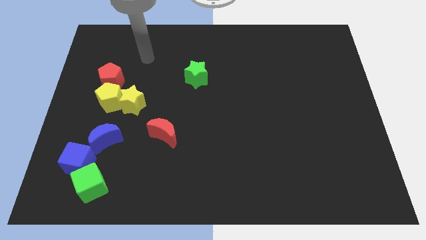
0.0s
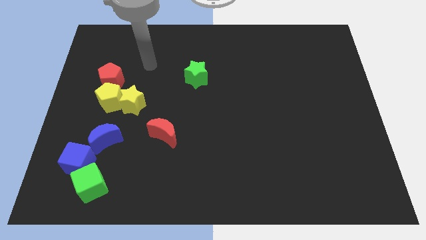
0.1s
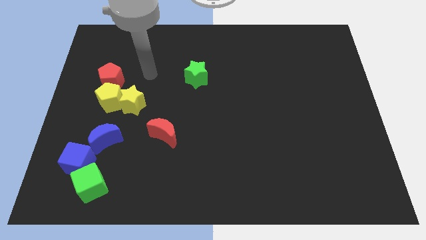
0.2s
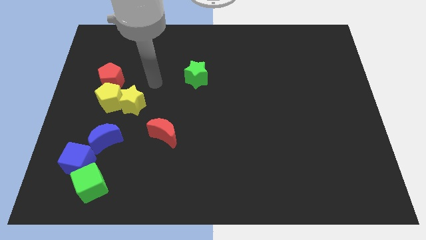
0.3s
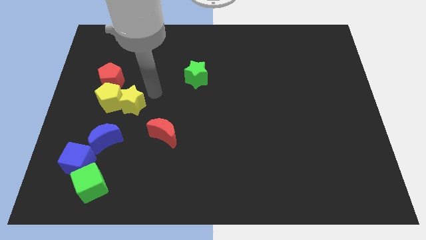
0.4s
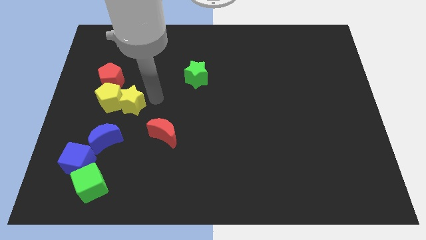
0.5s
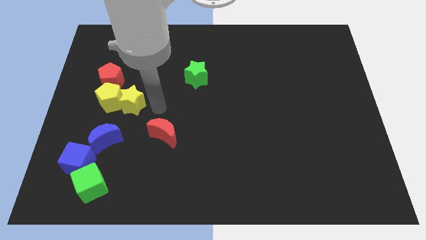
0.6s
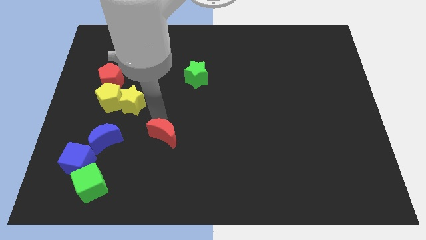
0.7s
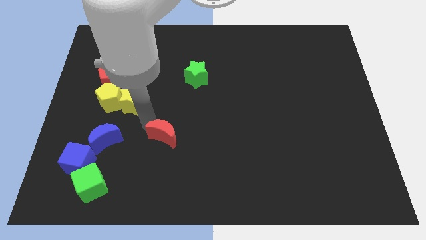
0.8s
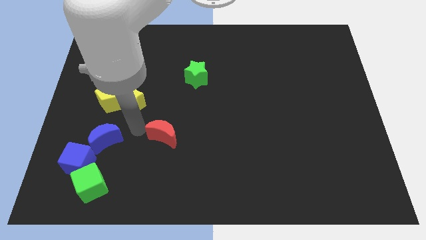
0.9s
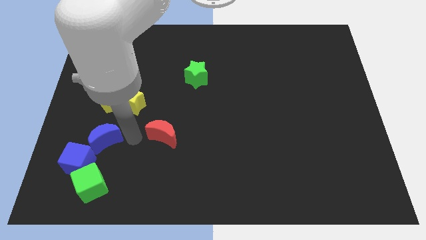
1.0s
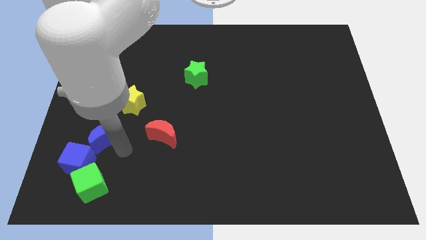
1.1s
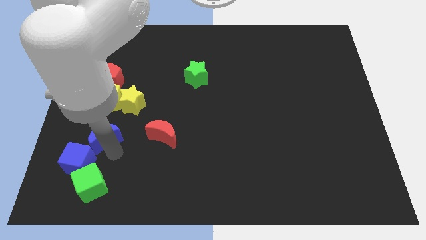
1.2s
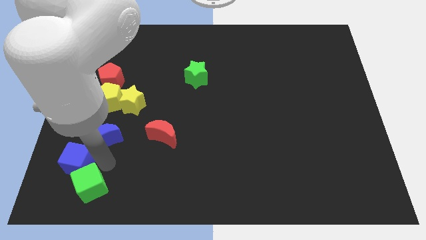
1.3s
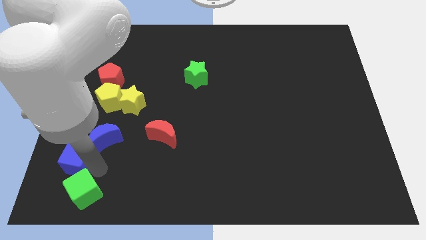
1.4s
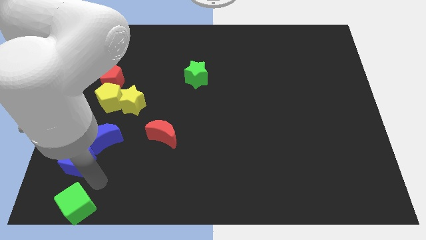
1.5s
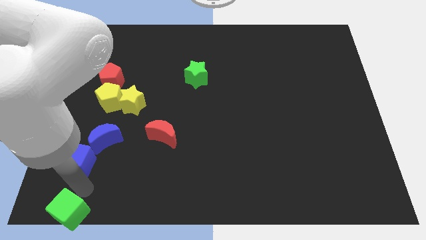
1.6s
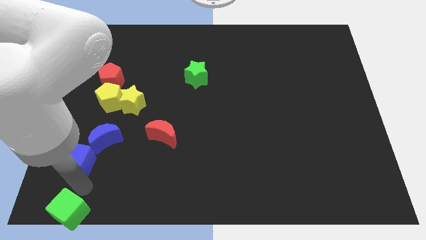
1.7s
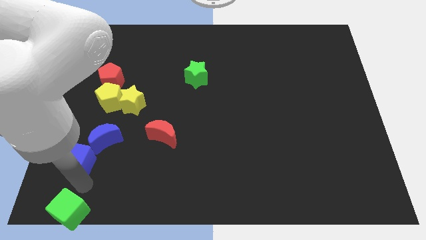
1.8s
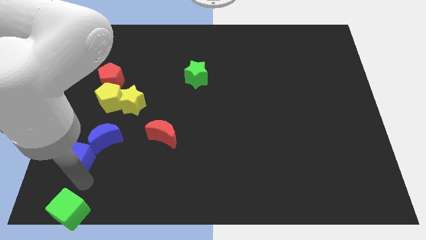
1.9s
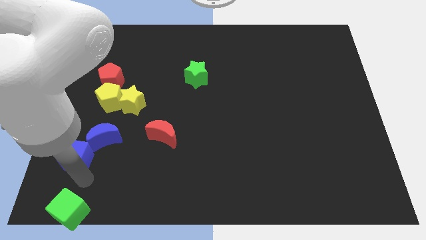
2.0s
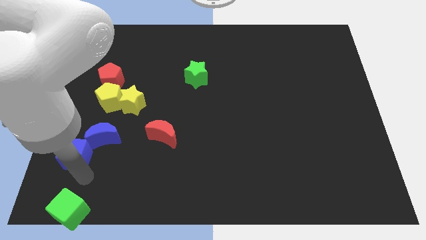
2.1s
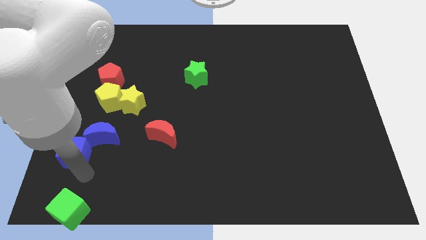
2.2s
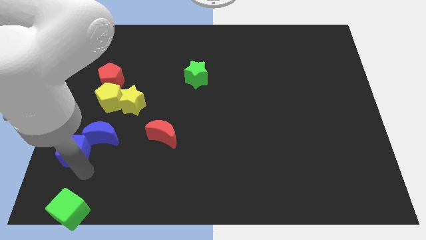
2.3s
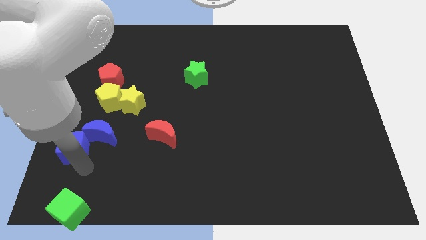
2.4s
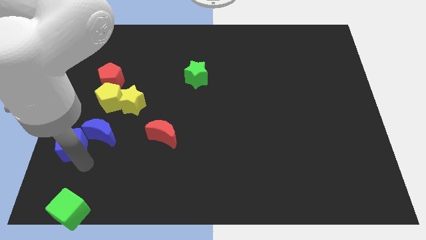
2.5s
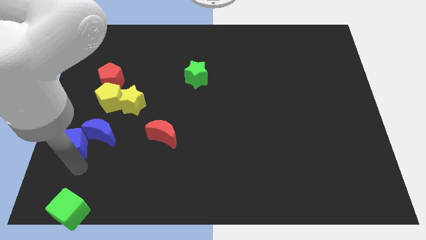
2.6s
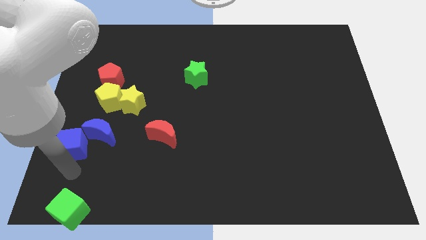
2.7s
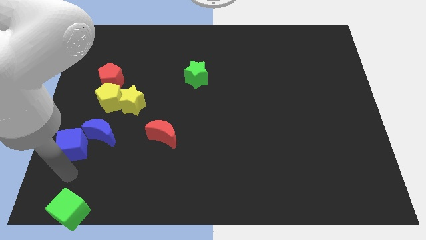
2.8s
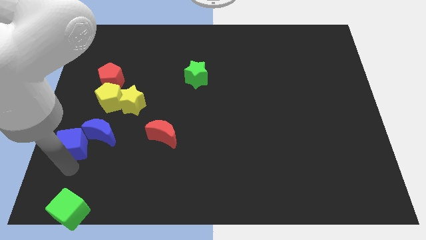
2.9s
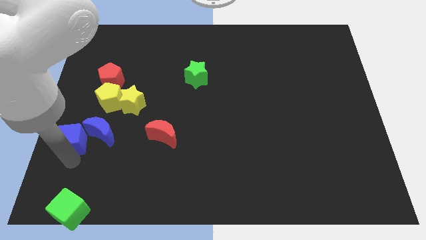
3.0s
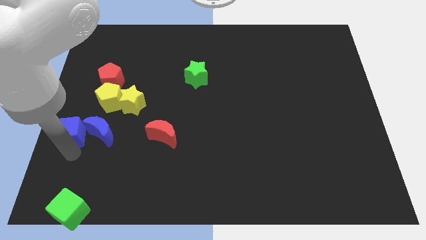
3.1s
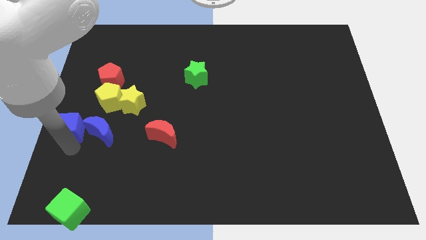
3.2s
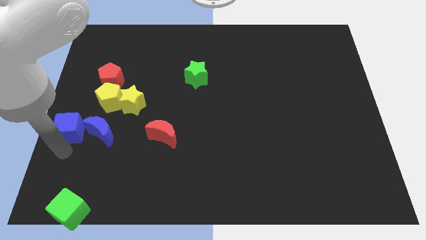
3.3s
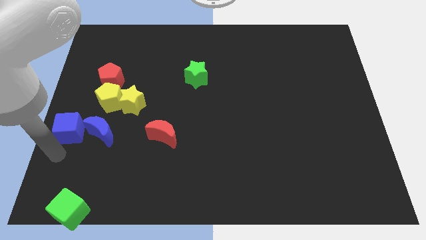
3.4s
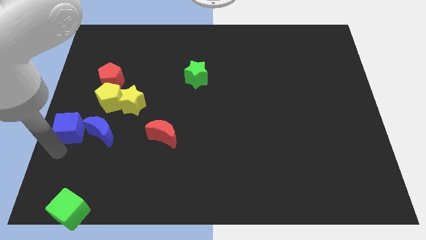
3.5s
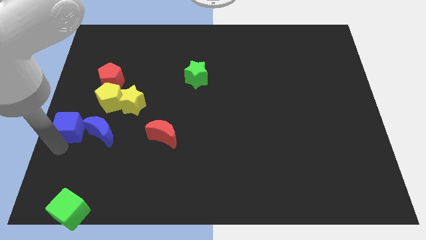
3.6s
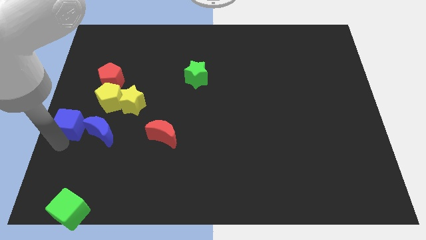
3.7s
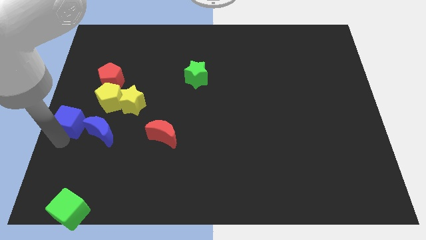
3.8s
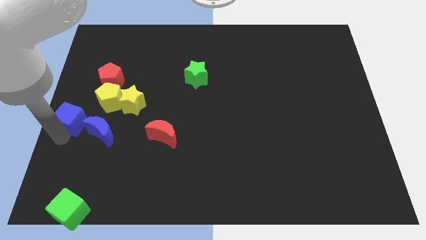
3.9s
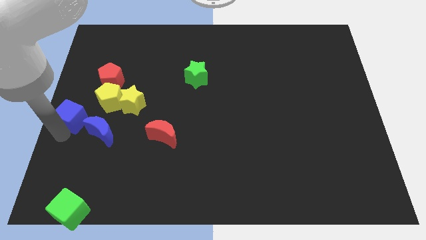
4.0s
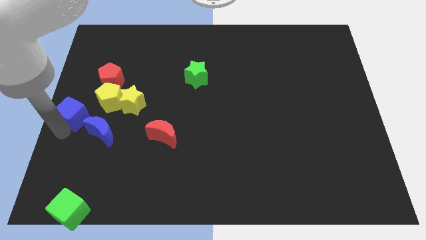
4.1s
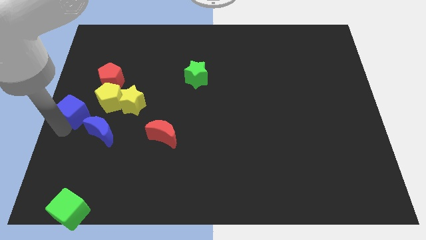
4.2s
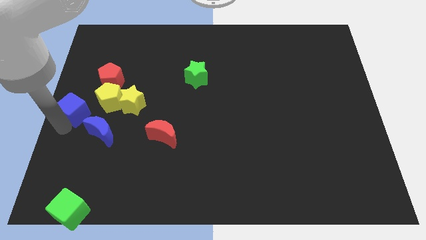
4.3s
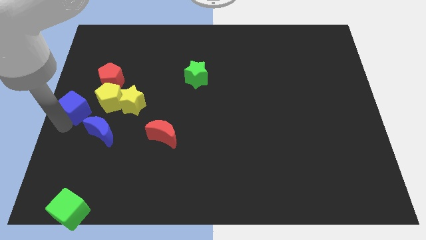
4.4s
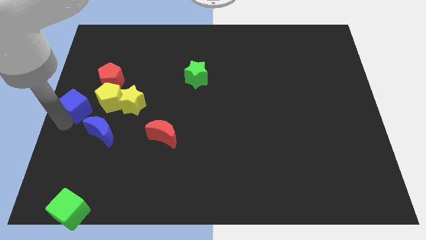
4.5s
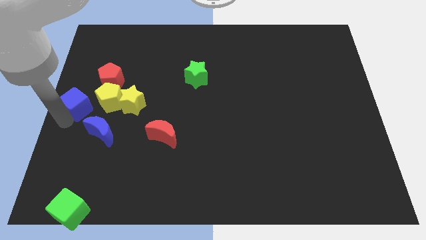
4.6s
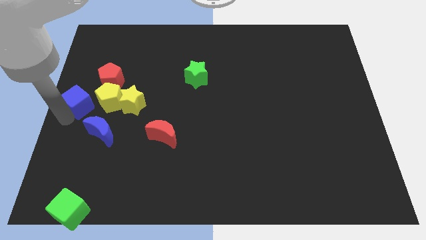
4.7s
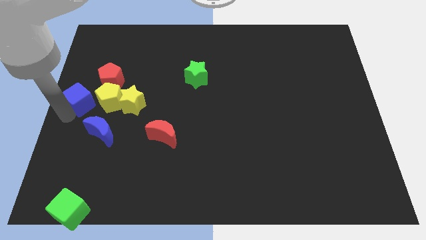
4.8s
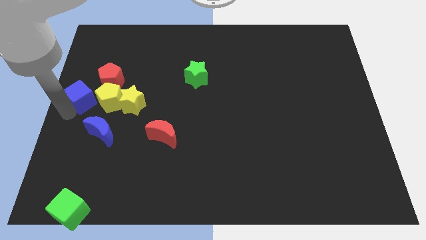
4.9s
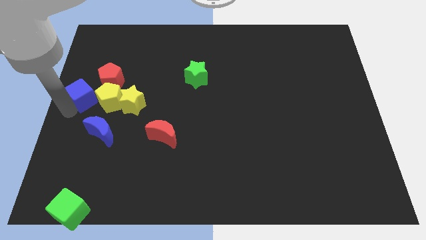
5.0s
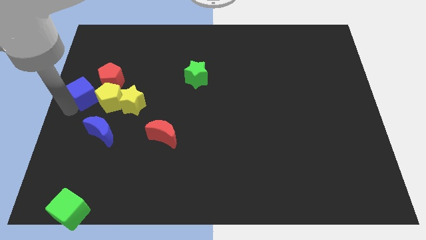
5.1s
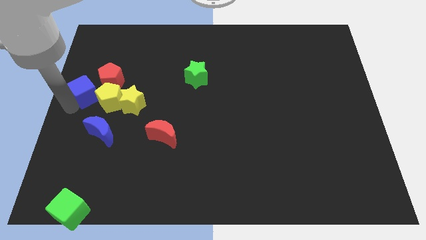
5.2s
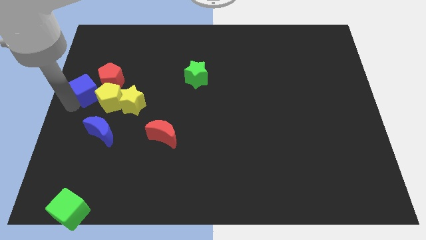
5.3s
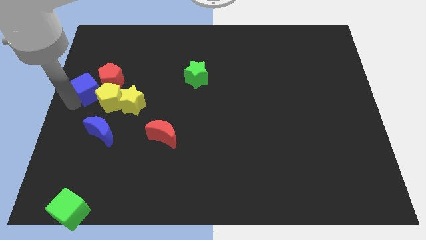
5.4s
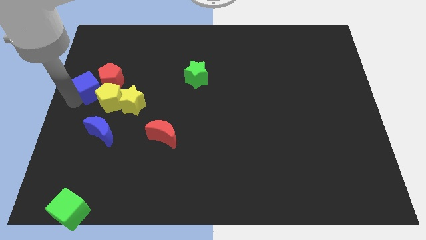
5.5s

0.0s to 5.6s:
put the blue cube next to the red pentagon

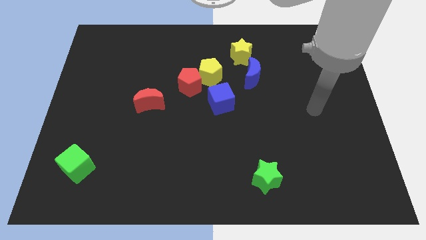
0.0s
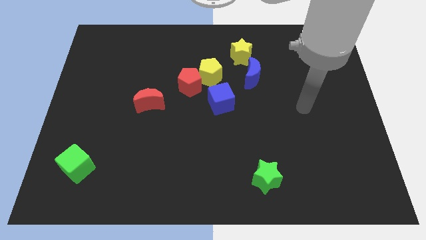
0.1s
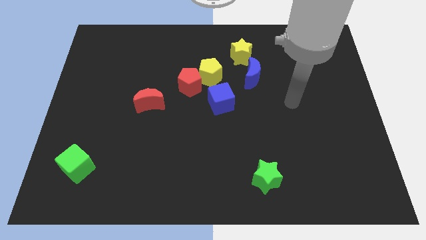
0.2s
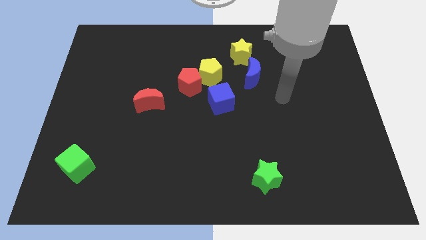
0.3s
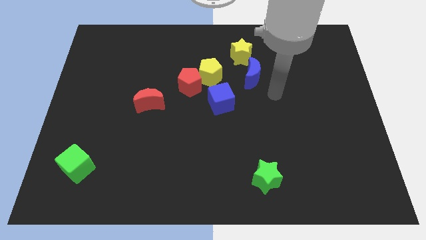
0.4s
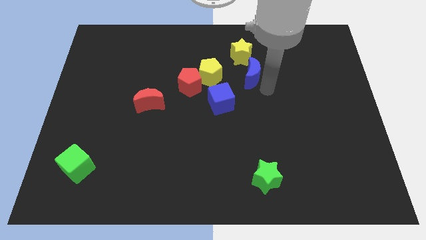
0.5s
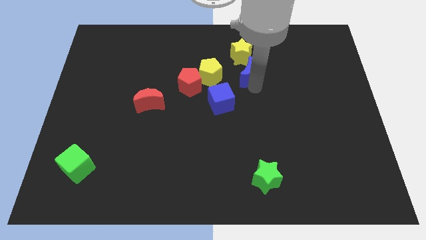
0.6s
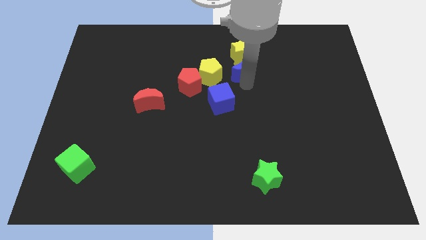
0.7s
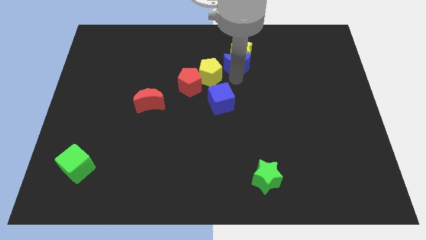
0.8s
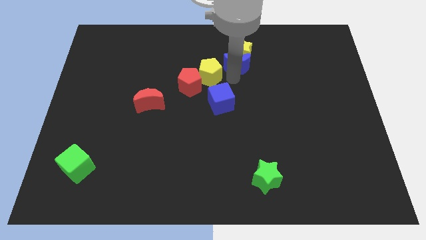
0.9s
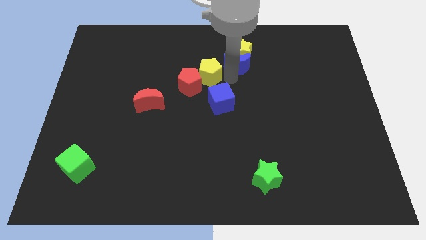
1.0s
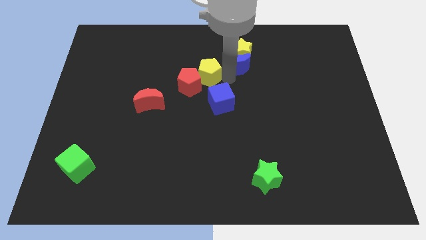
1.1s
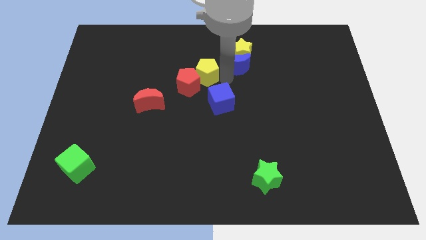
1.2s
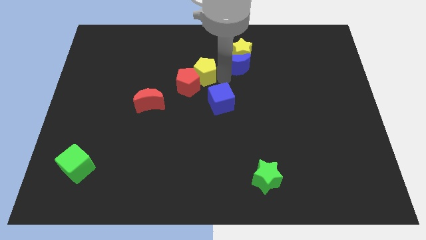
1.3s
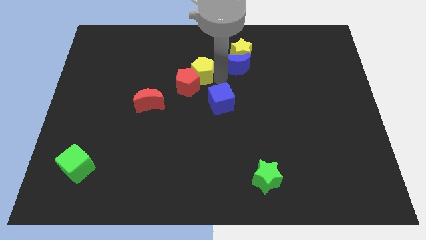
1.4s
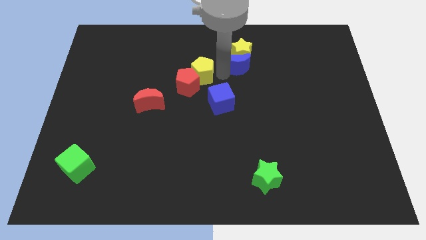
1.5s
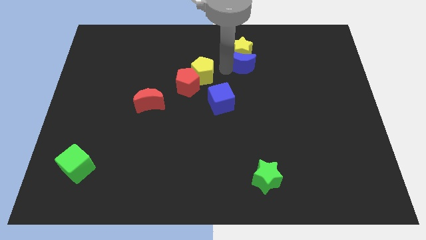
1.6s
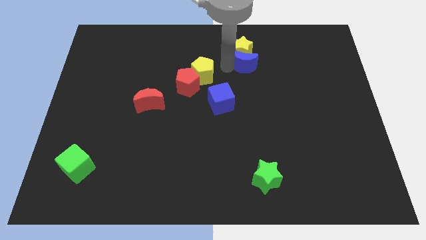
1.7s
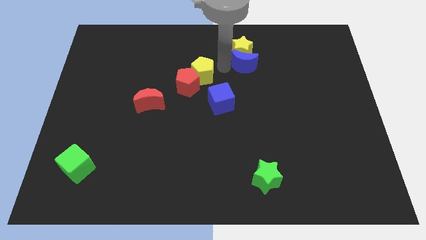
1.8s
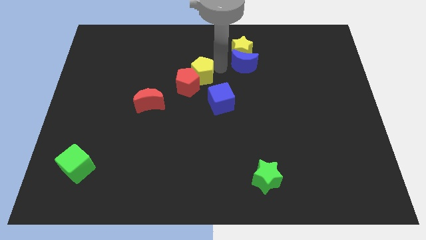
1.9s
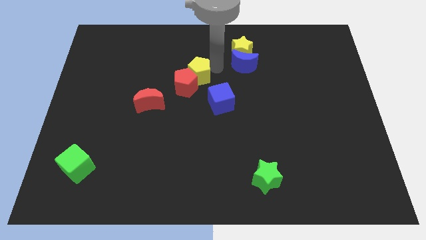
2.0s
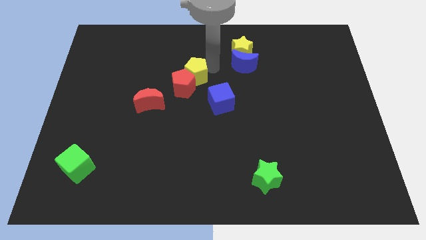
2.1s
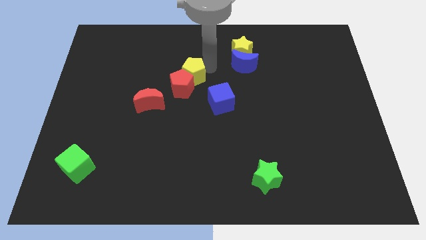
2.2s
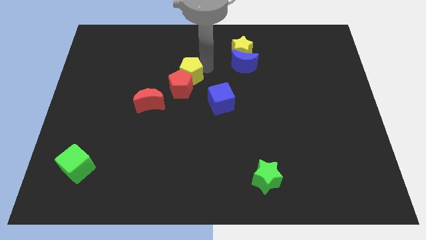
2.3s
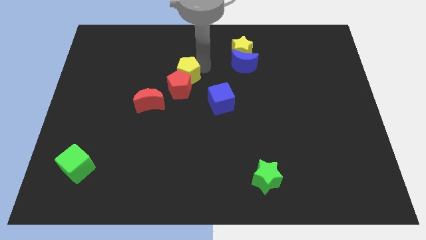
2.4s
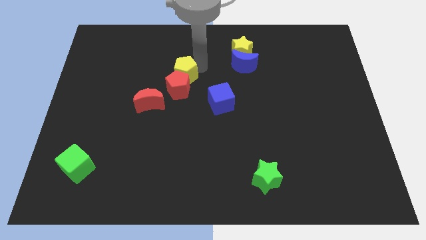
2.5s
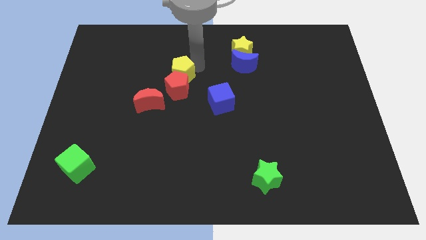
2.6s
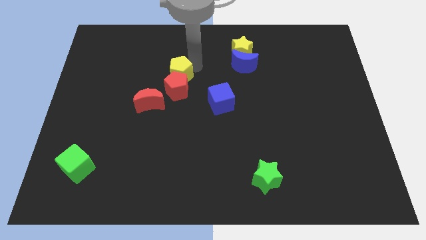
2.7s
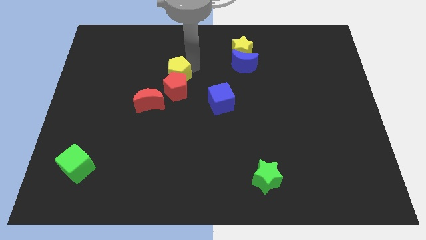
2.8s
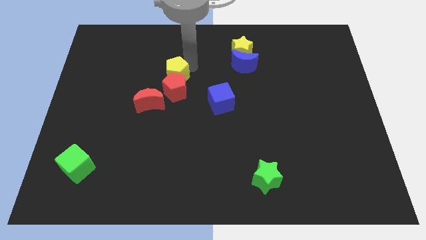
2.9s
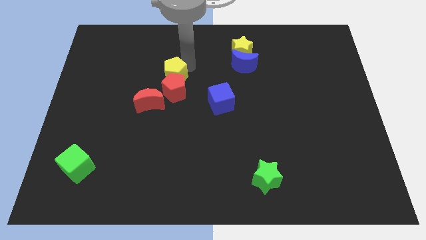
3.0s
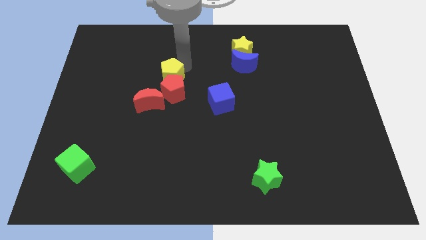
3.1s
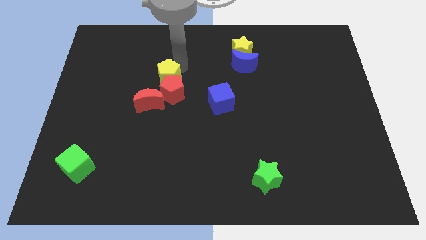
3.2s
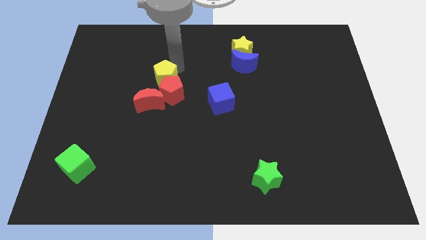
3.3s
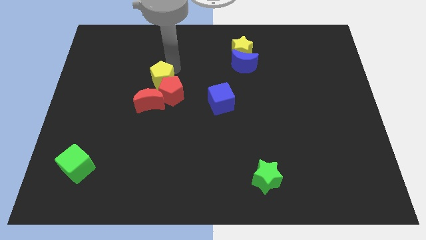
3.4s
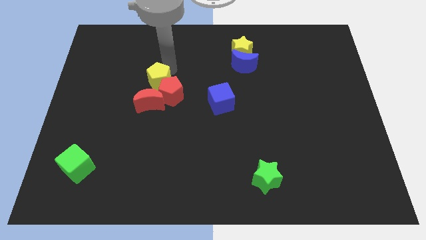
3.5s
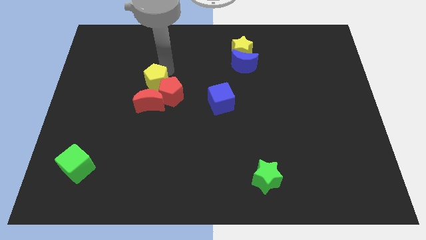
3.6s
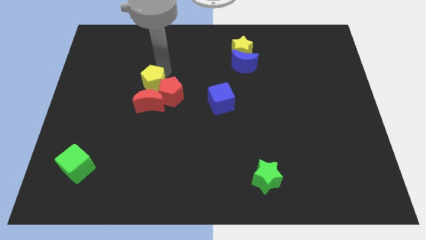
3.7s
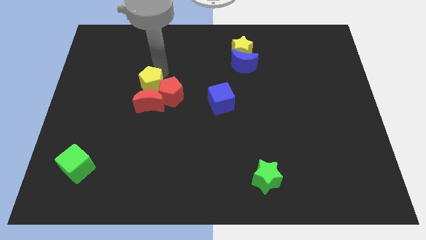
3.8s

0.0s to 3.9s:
push the yellow pentagon close to the red moon
